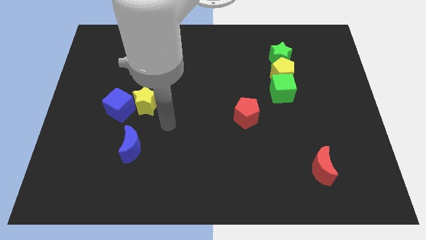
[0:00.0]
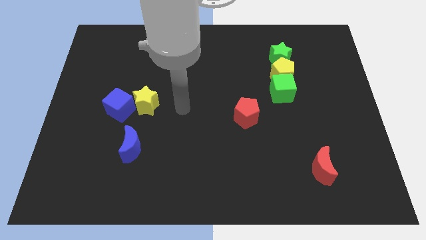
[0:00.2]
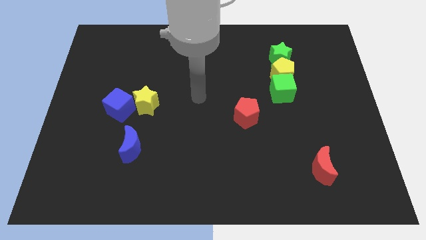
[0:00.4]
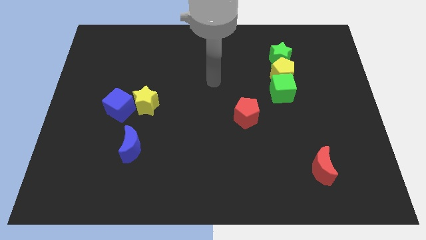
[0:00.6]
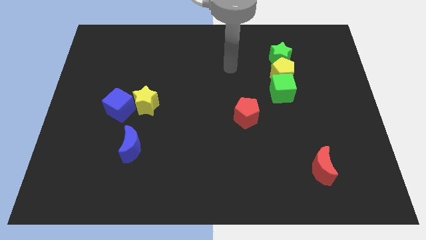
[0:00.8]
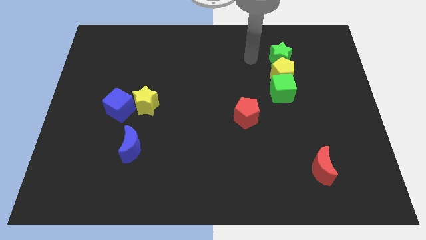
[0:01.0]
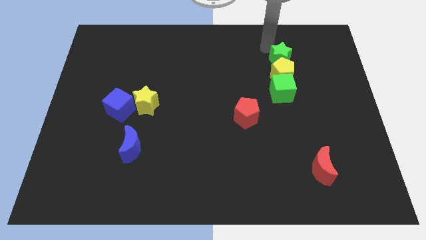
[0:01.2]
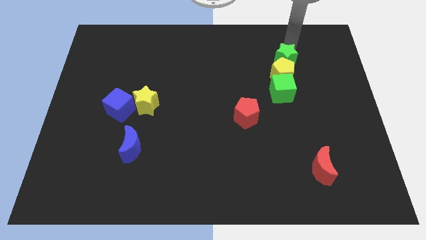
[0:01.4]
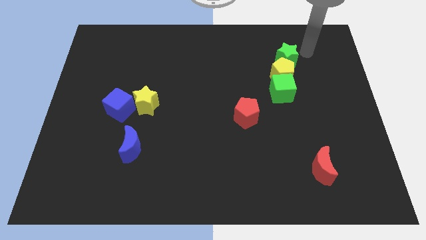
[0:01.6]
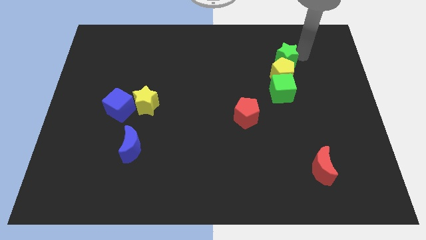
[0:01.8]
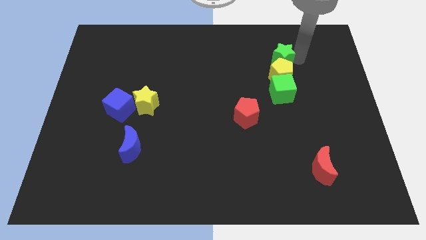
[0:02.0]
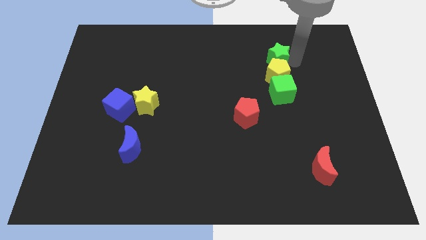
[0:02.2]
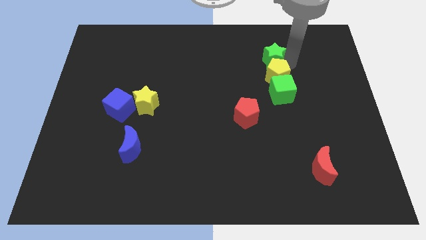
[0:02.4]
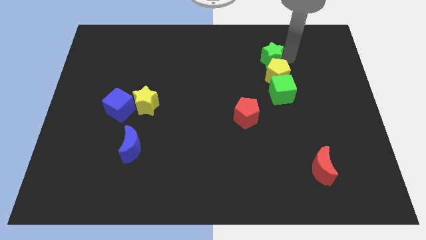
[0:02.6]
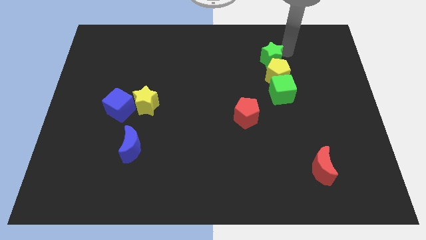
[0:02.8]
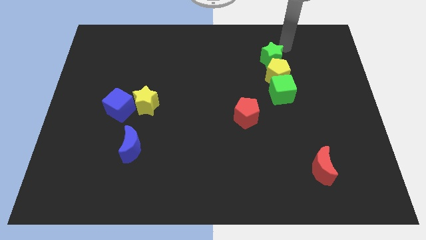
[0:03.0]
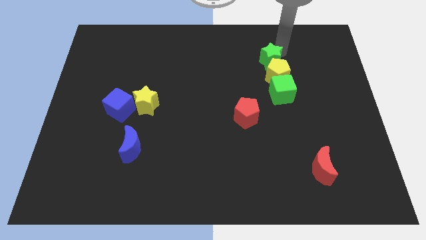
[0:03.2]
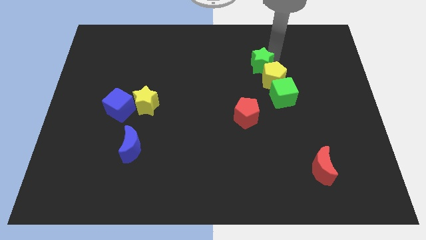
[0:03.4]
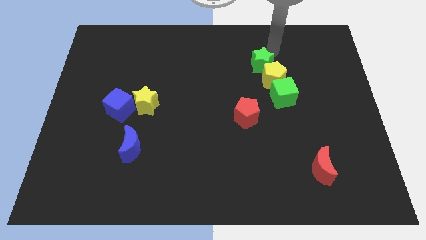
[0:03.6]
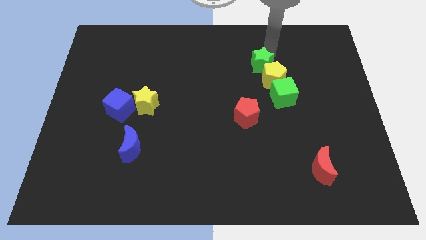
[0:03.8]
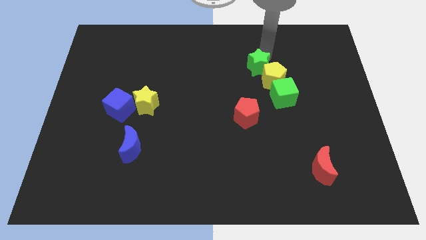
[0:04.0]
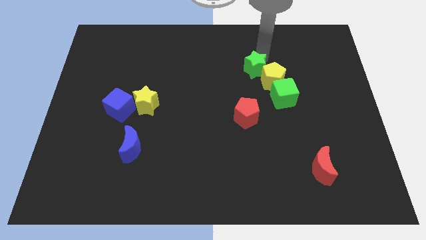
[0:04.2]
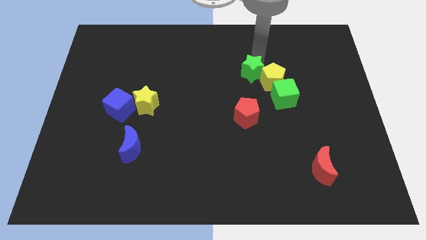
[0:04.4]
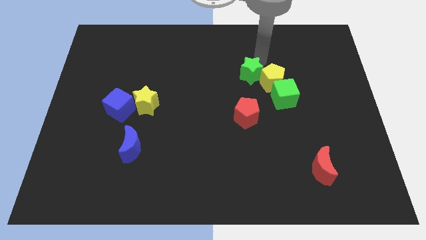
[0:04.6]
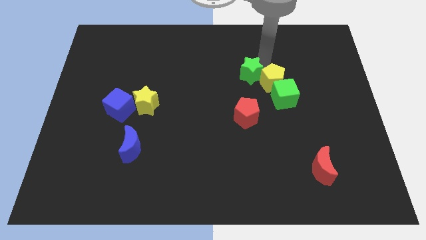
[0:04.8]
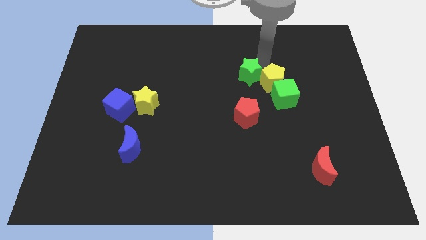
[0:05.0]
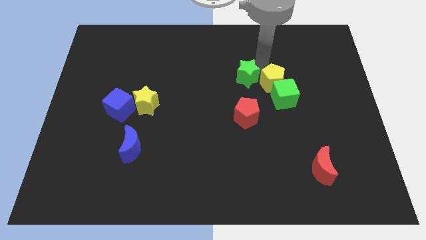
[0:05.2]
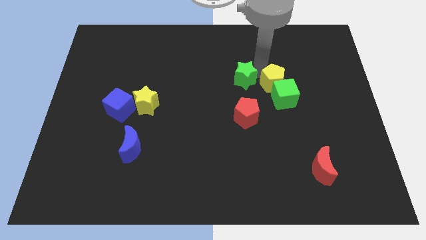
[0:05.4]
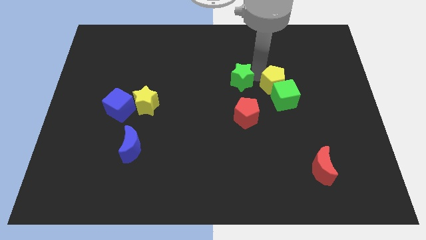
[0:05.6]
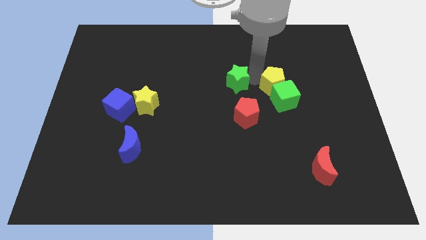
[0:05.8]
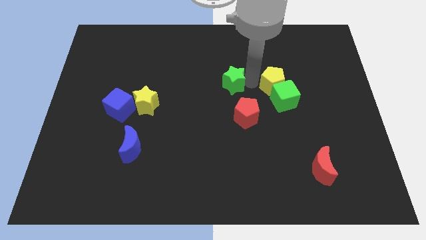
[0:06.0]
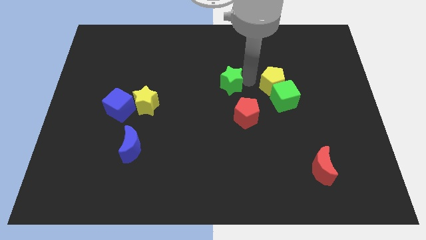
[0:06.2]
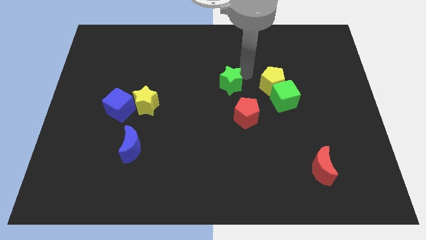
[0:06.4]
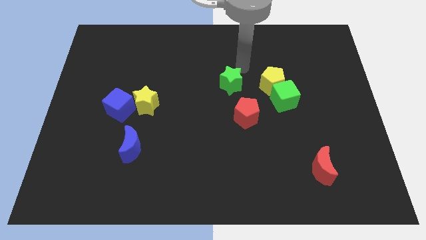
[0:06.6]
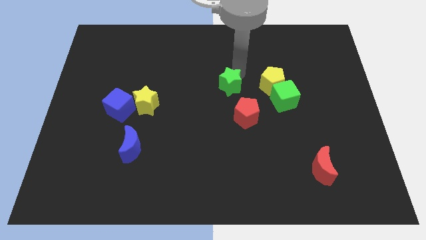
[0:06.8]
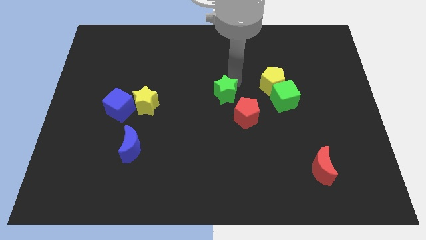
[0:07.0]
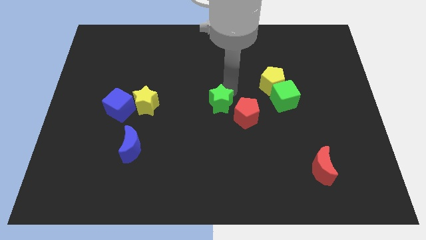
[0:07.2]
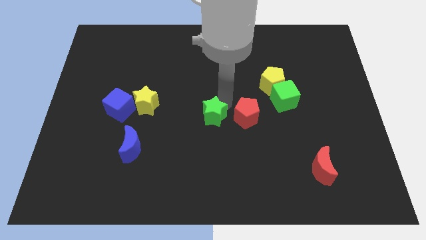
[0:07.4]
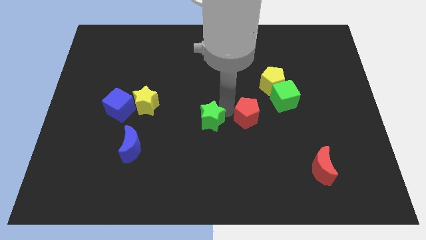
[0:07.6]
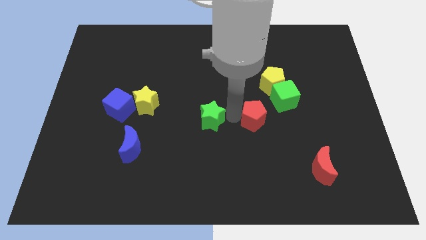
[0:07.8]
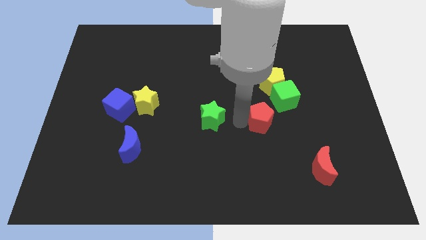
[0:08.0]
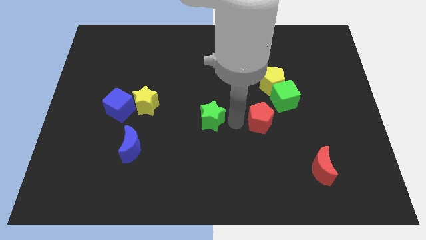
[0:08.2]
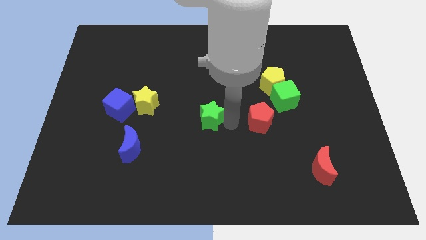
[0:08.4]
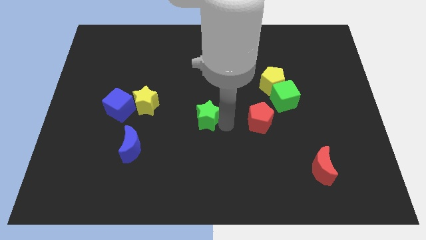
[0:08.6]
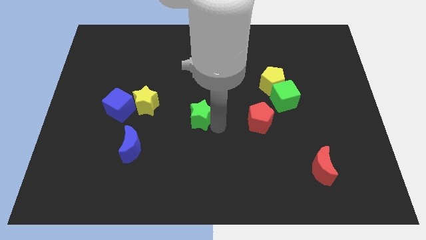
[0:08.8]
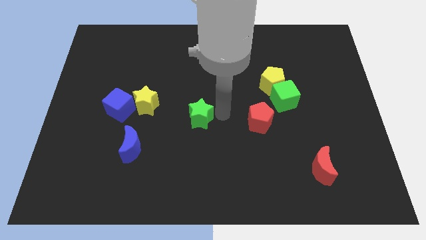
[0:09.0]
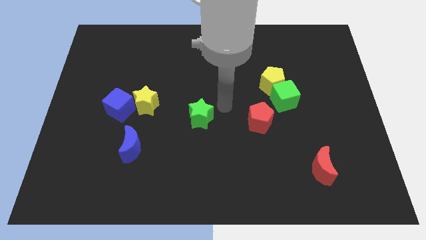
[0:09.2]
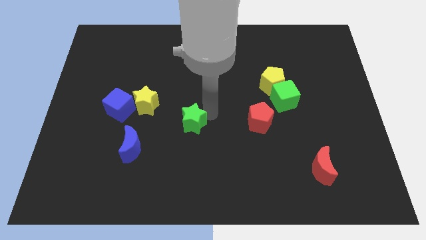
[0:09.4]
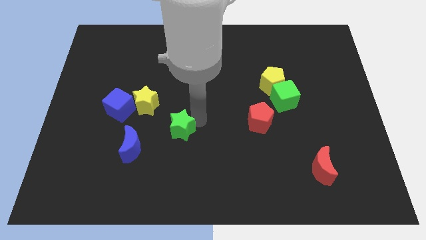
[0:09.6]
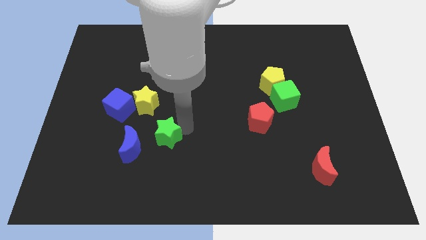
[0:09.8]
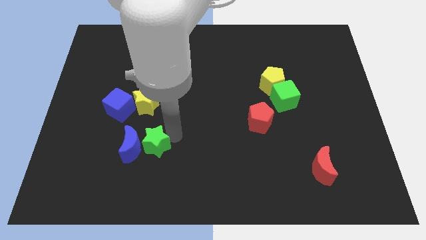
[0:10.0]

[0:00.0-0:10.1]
put the green star to the blue moon

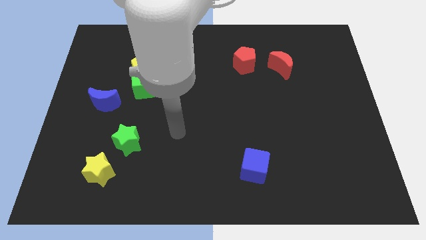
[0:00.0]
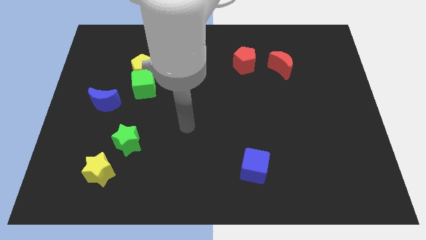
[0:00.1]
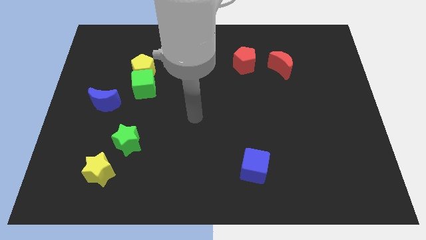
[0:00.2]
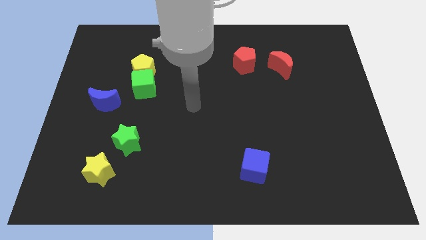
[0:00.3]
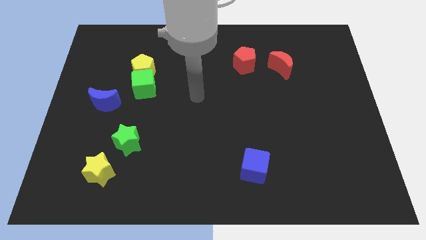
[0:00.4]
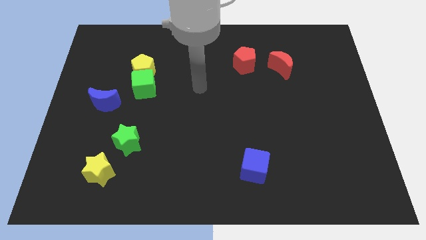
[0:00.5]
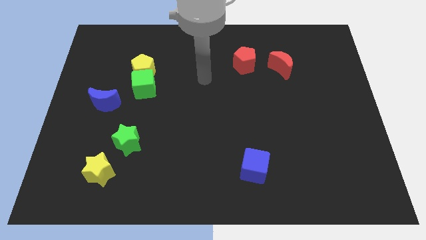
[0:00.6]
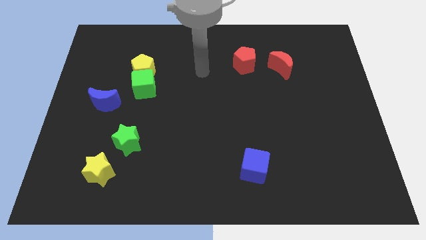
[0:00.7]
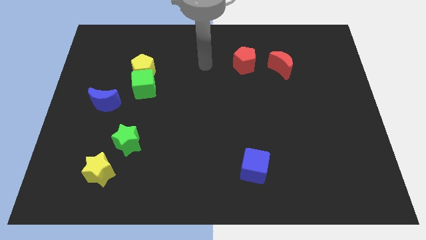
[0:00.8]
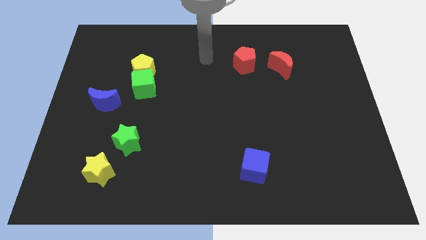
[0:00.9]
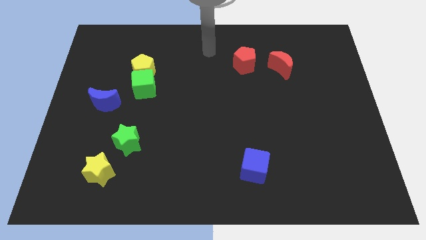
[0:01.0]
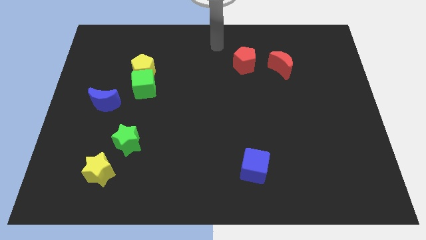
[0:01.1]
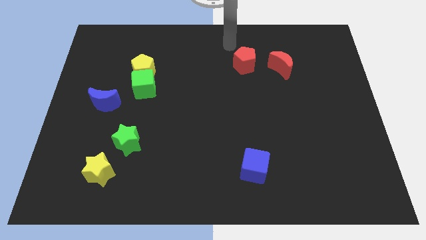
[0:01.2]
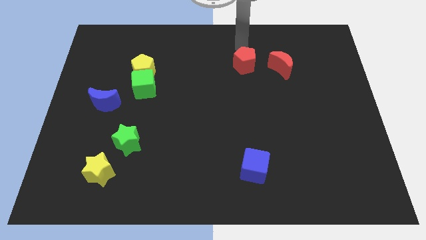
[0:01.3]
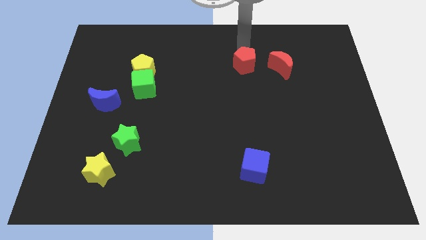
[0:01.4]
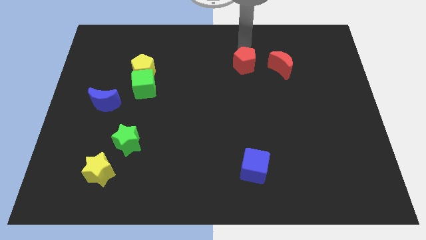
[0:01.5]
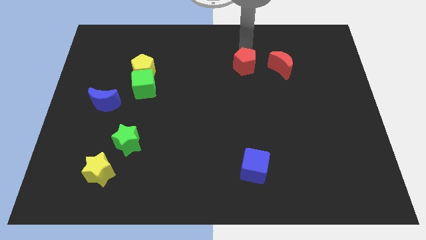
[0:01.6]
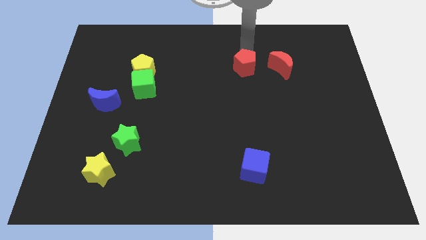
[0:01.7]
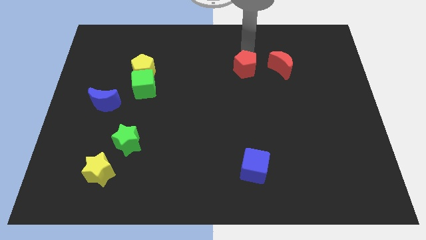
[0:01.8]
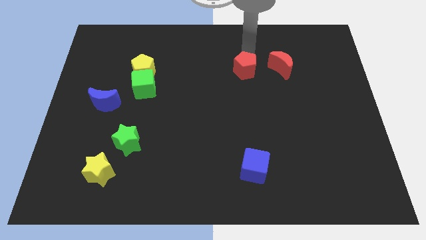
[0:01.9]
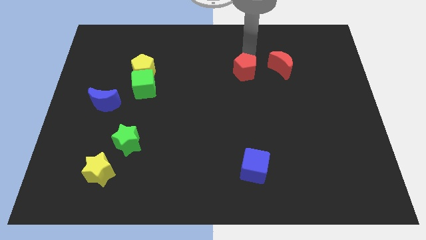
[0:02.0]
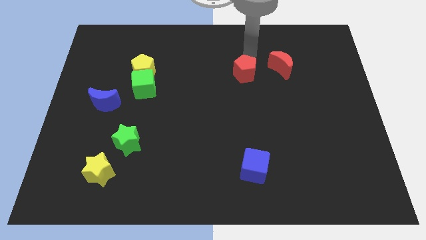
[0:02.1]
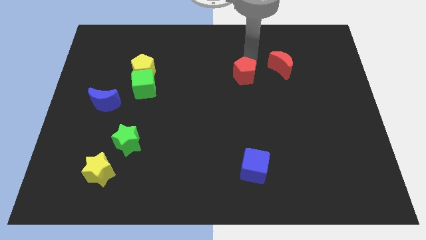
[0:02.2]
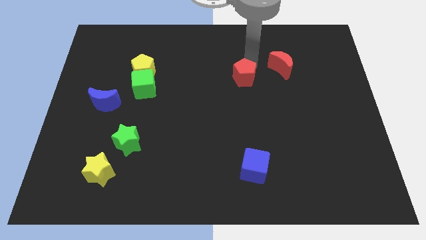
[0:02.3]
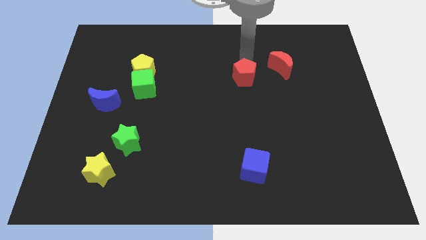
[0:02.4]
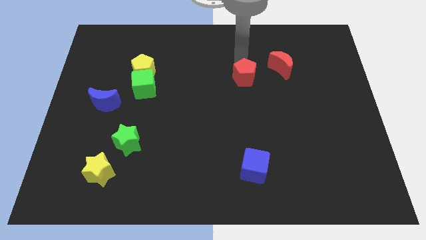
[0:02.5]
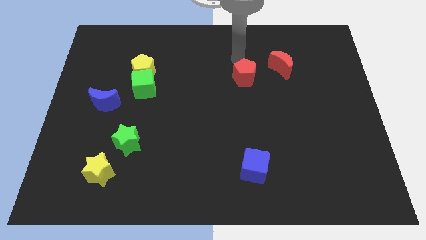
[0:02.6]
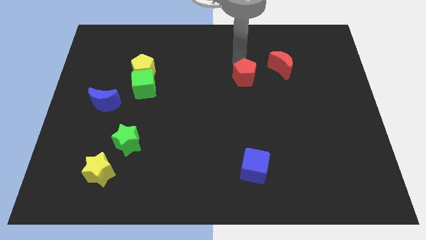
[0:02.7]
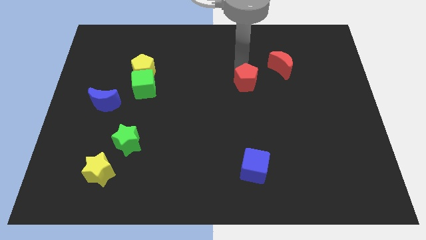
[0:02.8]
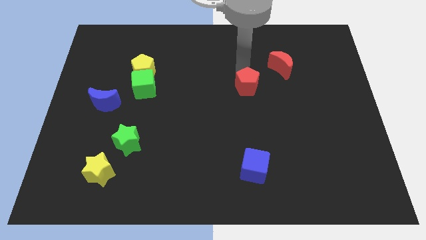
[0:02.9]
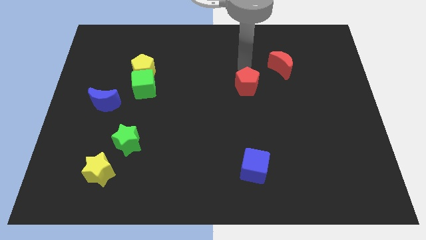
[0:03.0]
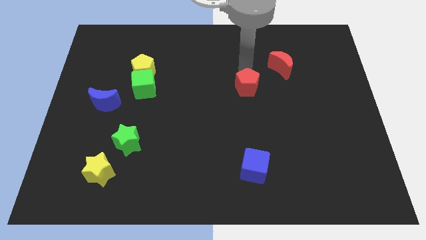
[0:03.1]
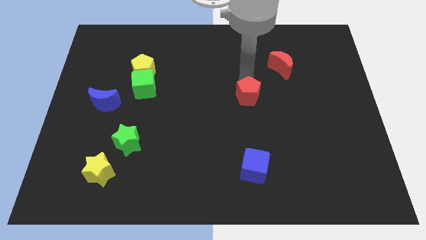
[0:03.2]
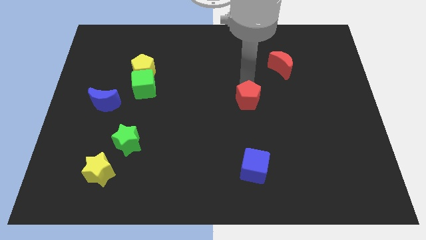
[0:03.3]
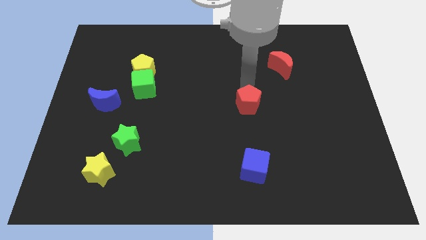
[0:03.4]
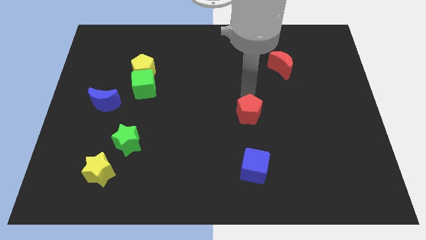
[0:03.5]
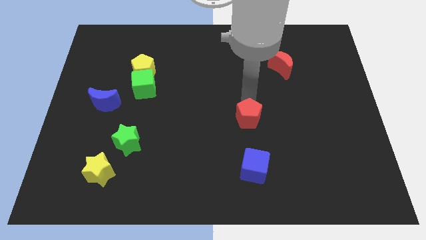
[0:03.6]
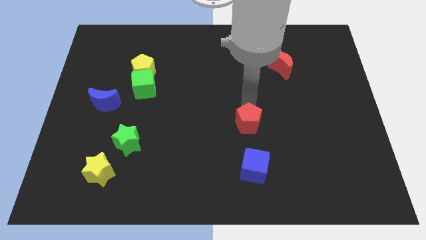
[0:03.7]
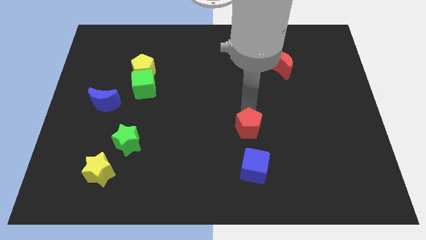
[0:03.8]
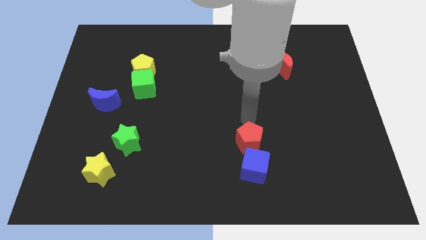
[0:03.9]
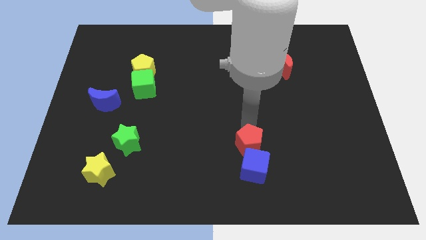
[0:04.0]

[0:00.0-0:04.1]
move the red pentagon to the blue cube
